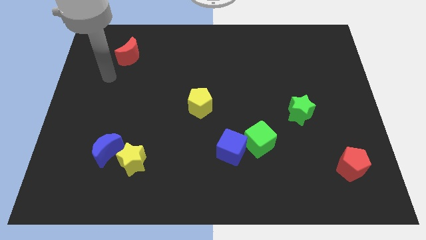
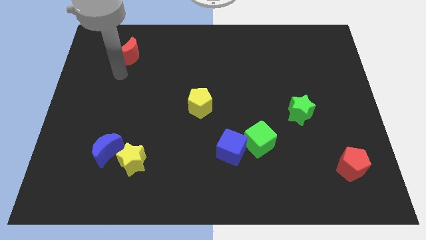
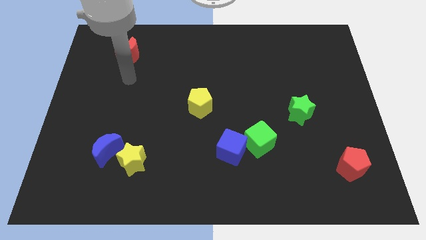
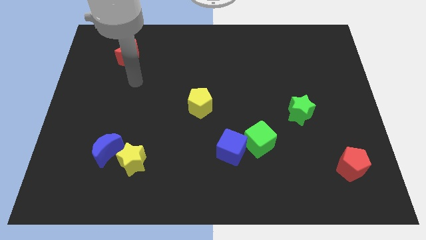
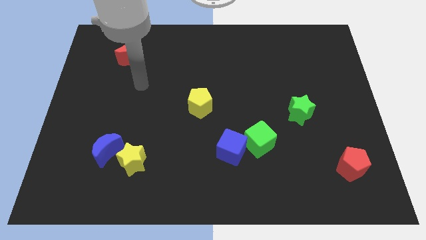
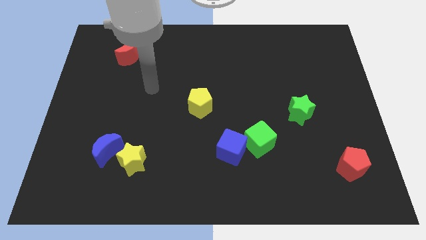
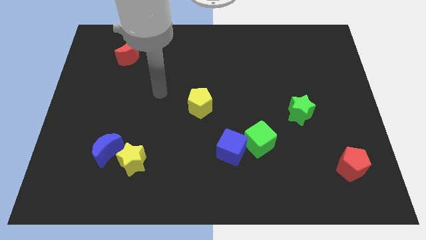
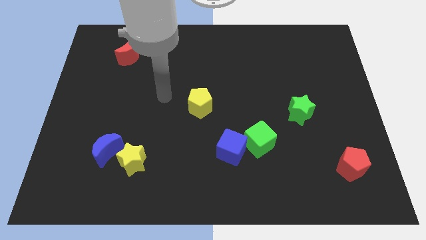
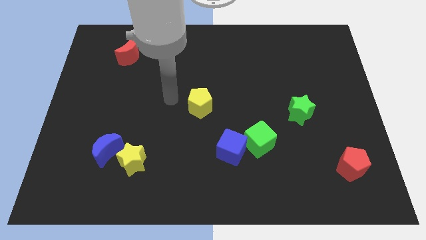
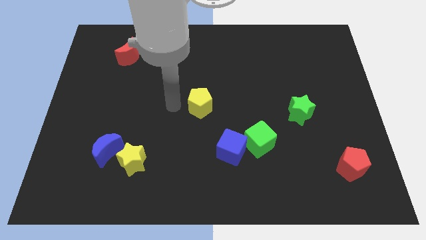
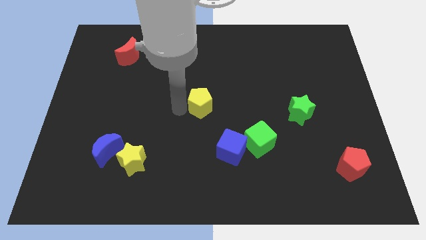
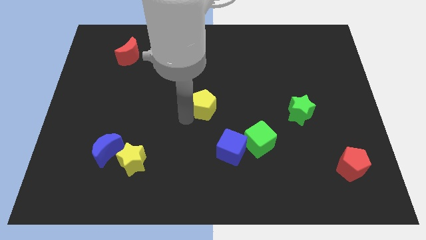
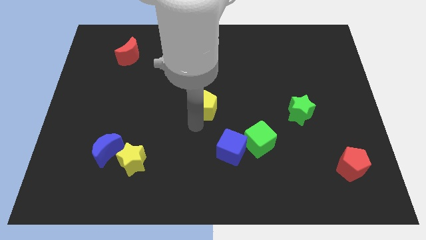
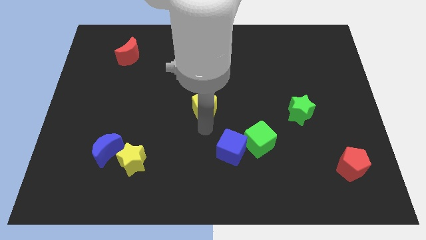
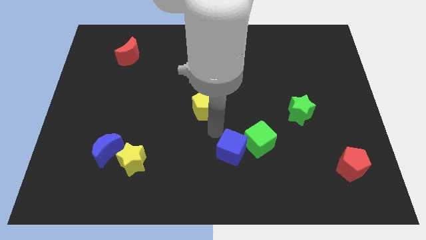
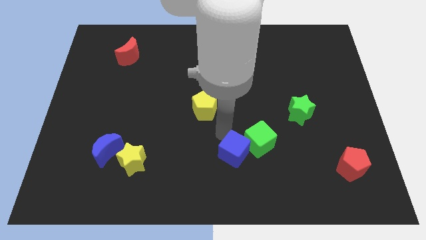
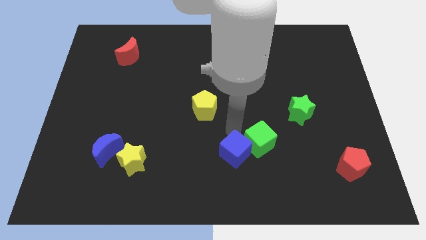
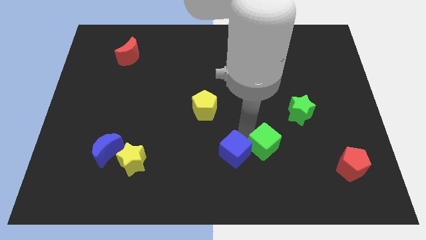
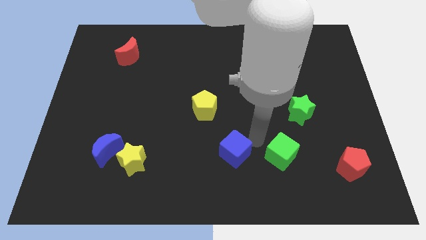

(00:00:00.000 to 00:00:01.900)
separate the blue cube from the green cube

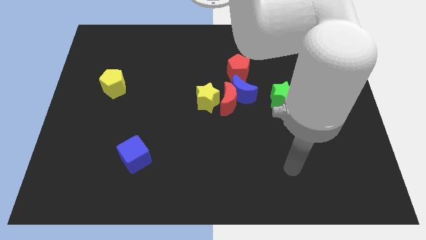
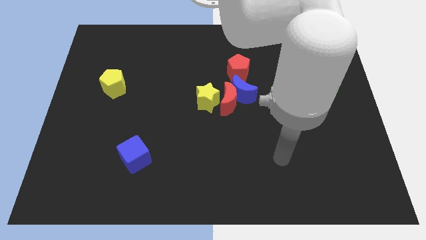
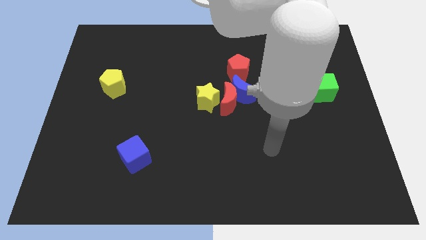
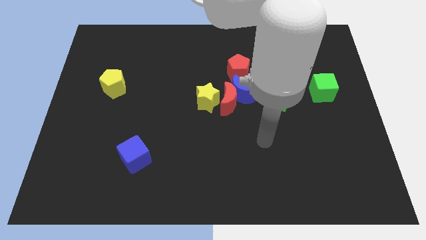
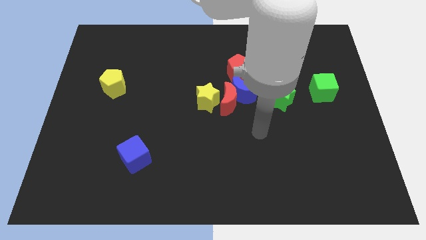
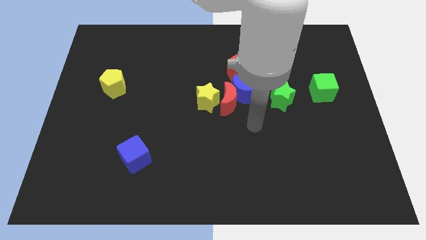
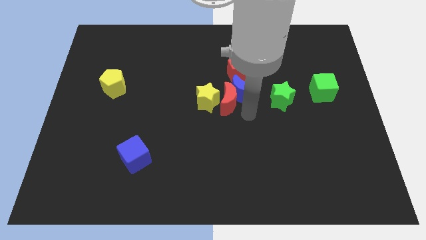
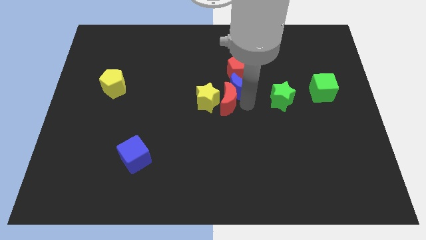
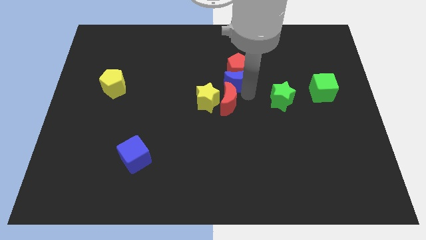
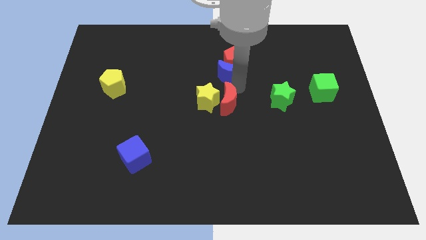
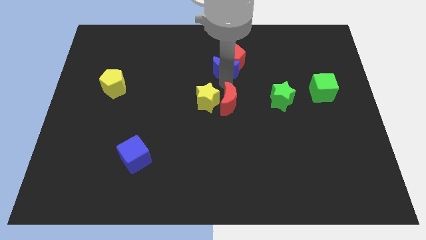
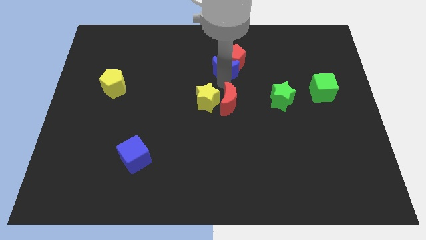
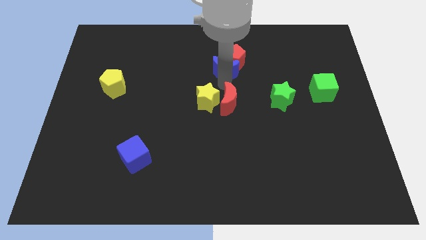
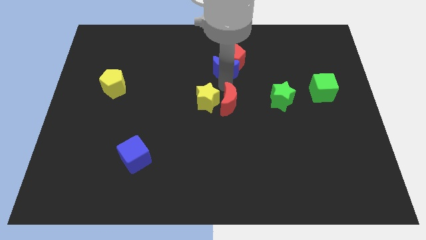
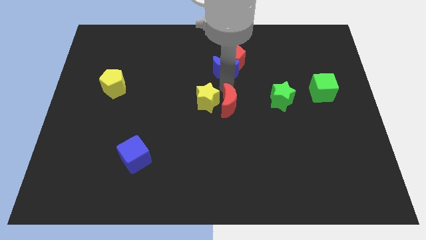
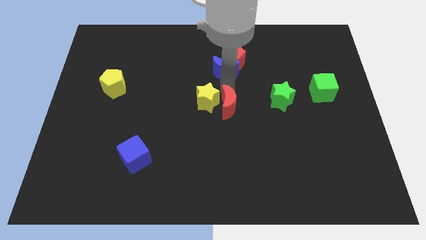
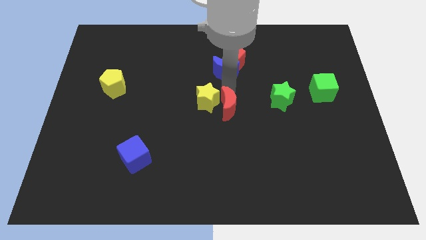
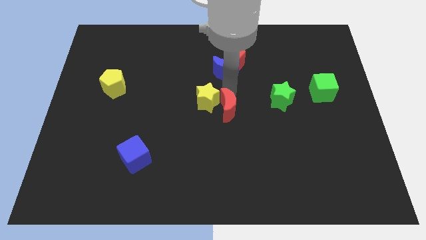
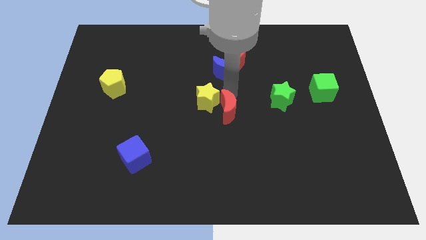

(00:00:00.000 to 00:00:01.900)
move the red moon away from the clump

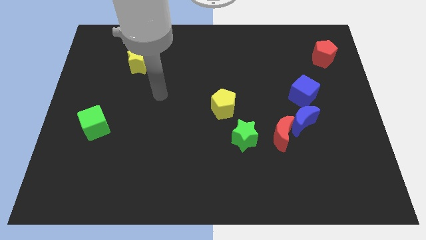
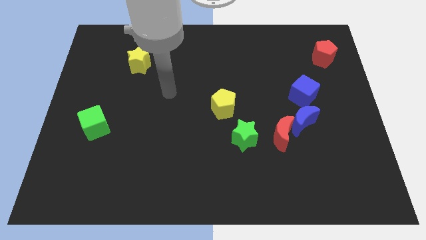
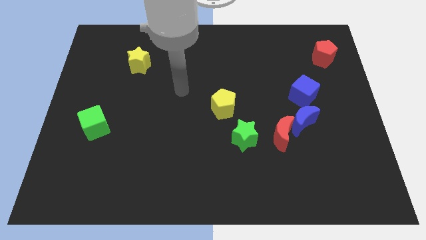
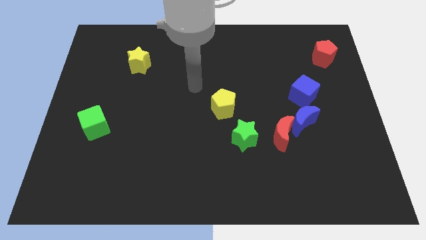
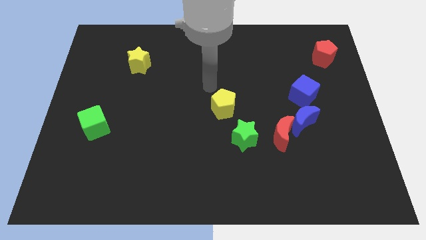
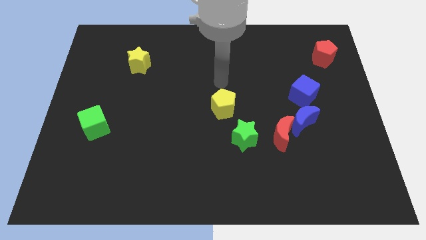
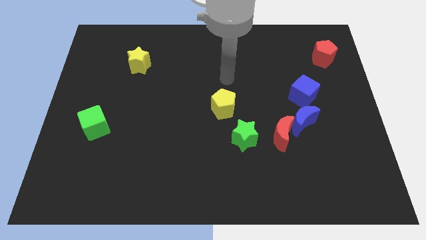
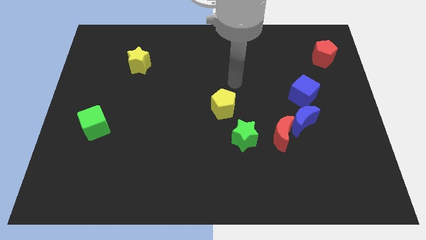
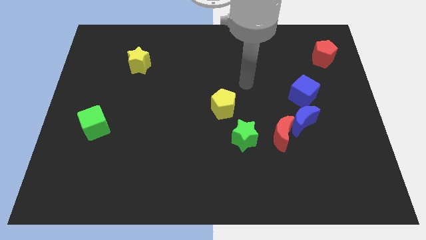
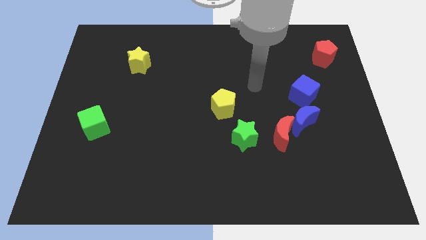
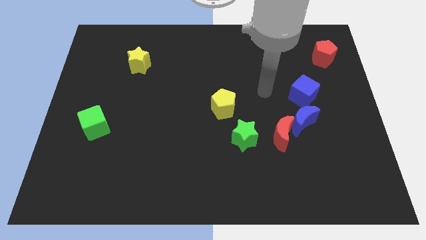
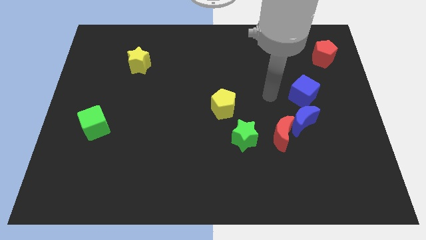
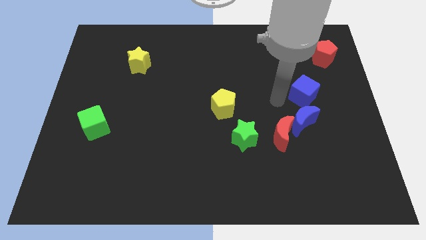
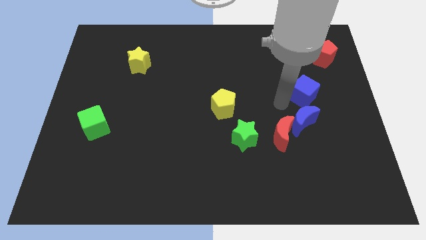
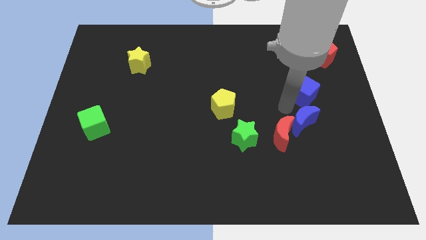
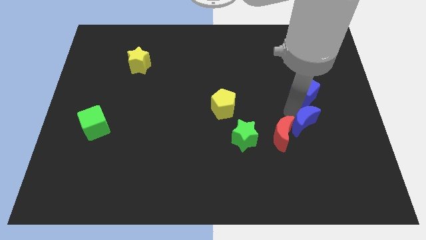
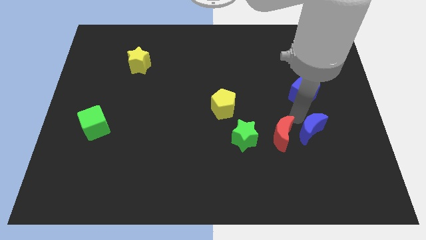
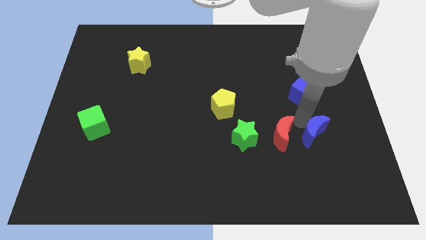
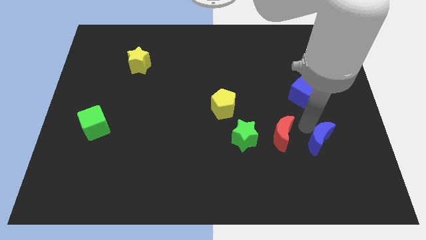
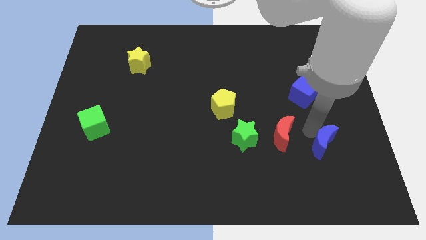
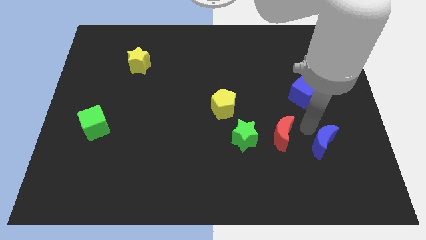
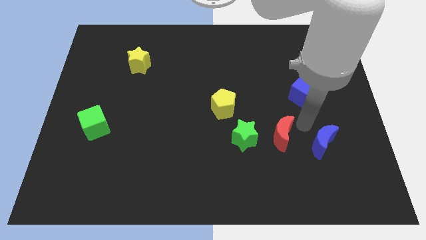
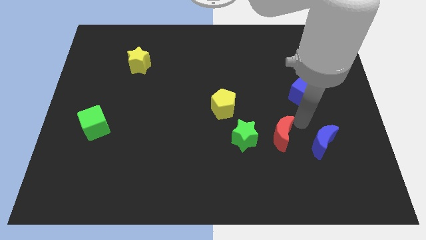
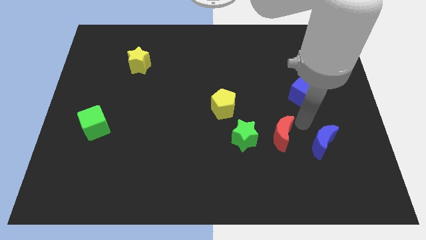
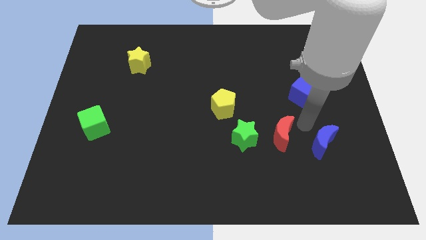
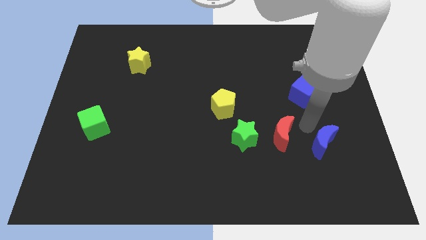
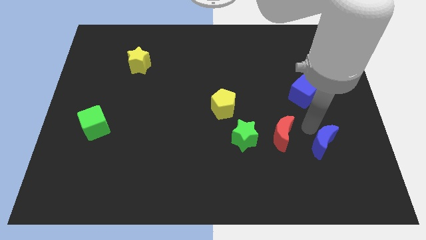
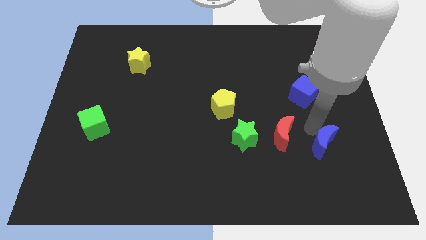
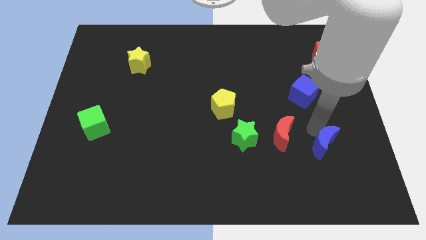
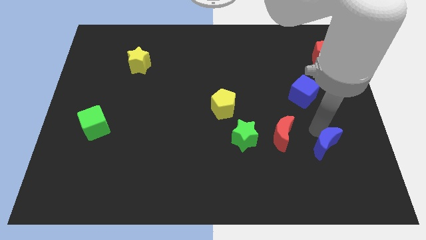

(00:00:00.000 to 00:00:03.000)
move the blue moon away from the red moon and blue cube

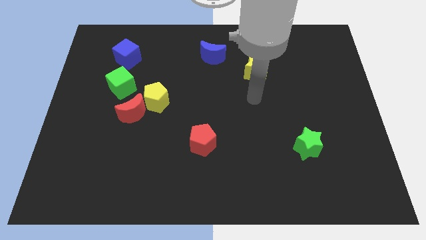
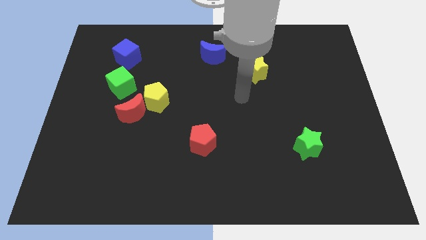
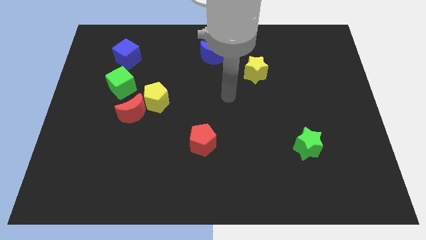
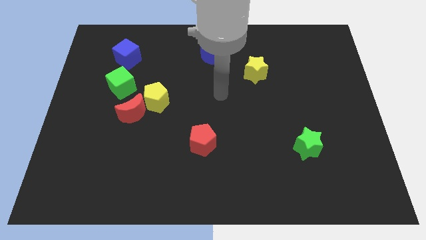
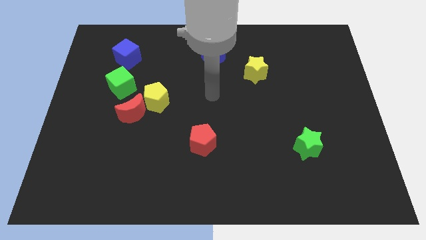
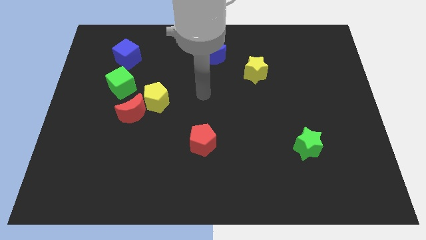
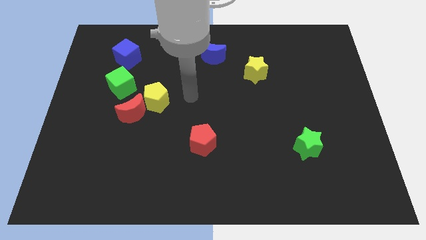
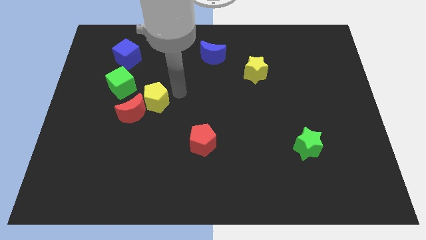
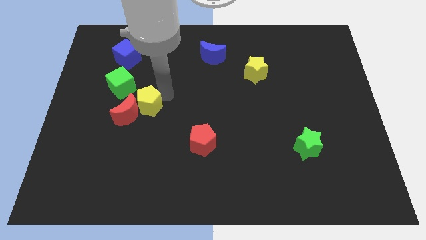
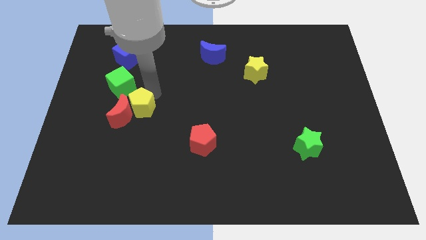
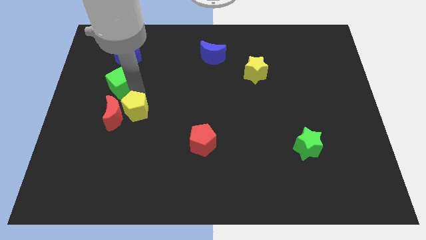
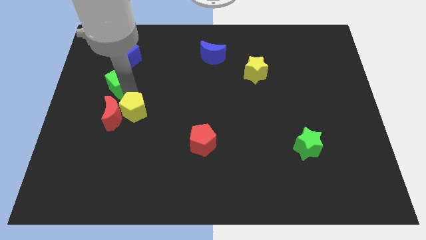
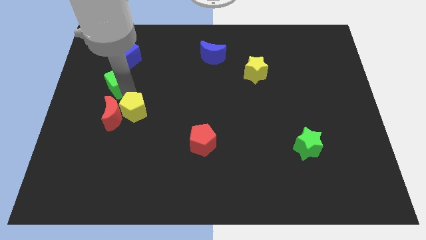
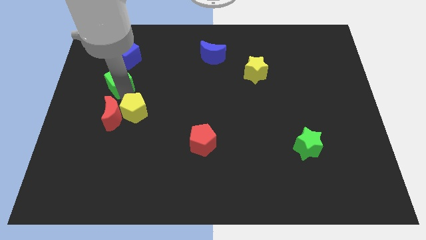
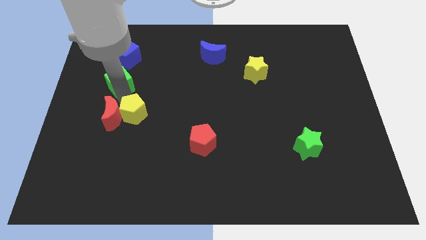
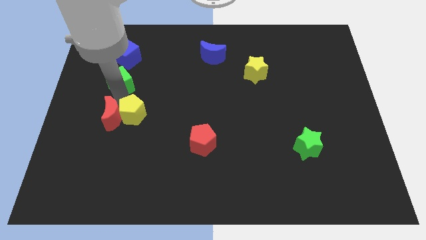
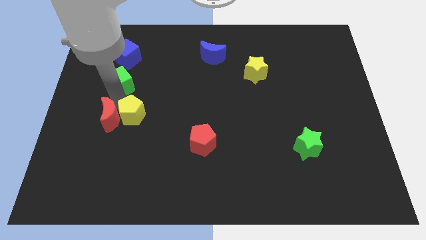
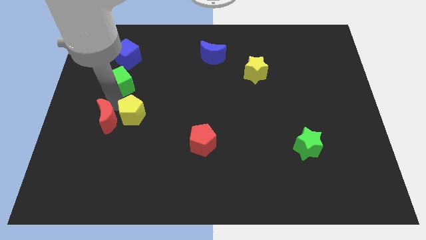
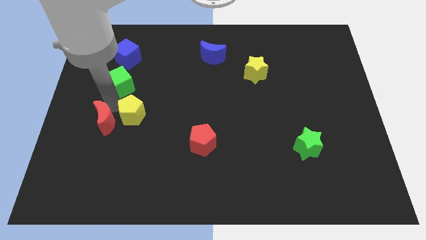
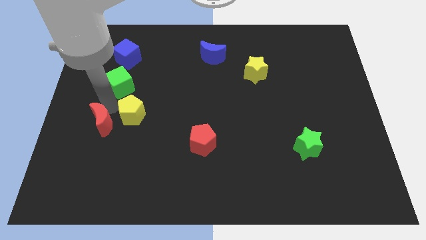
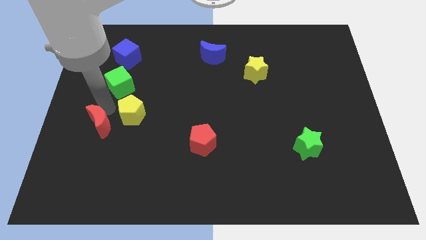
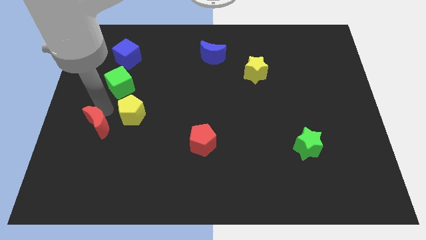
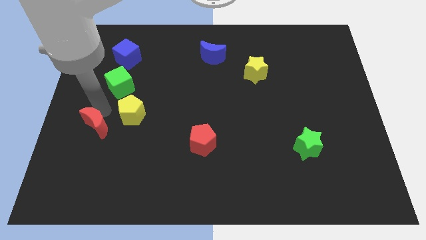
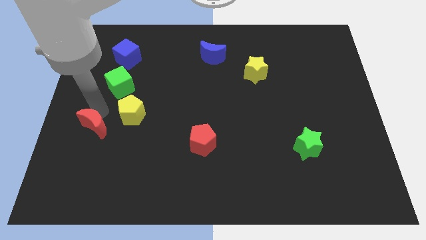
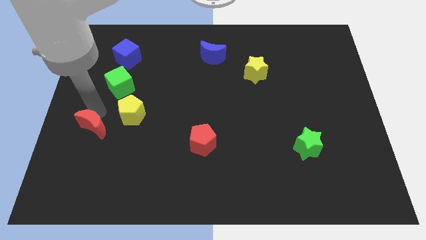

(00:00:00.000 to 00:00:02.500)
separate the red moon from the yellow pentagon and green cube
